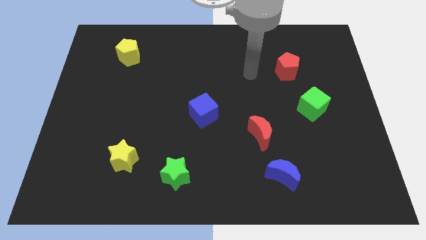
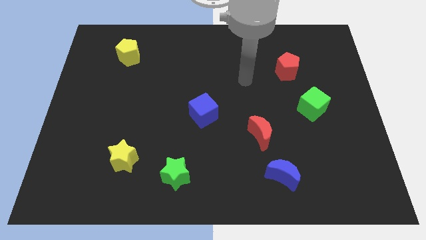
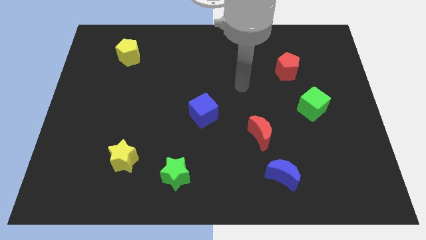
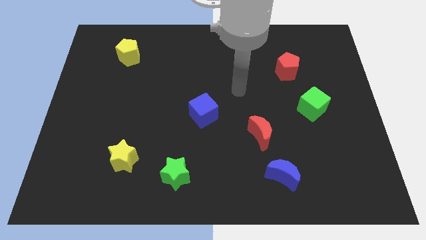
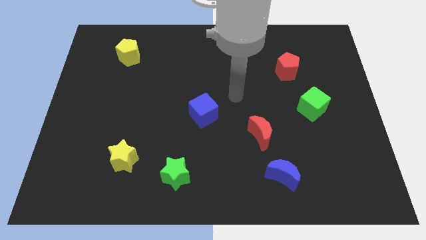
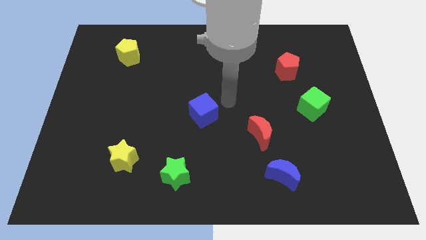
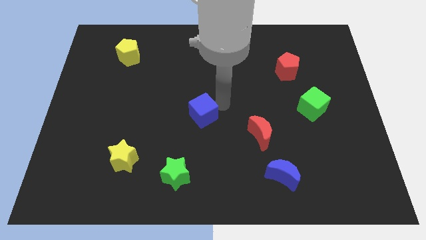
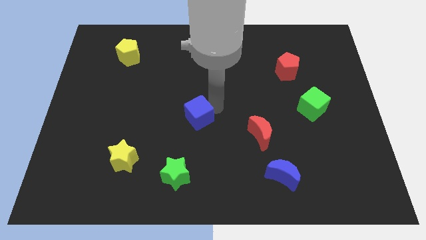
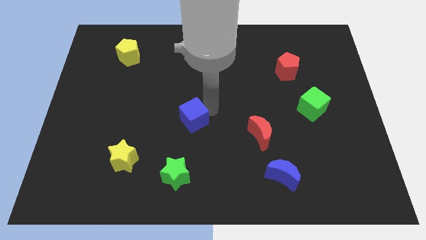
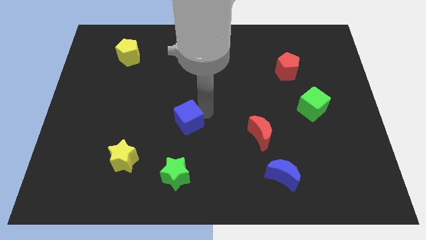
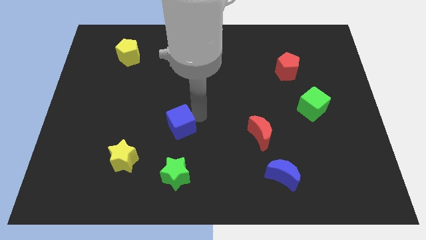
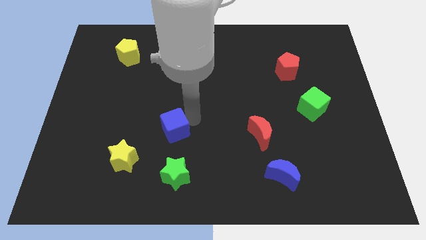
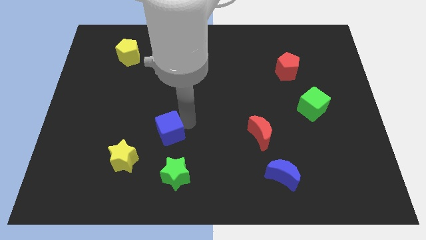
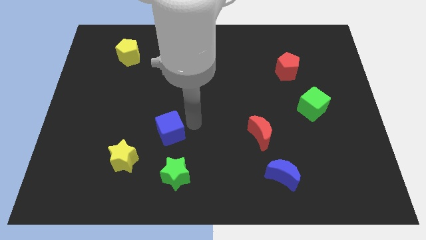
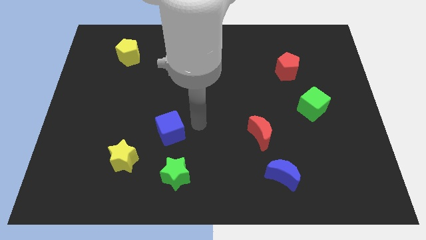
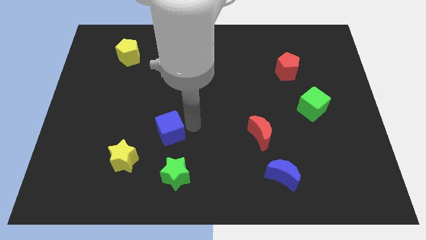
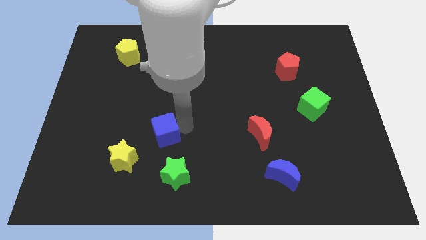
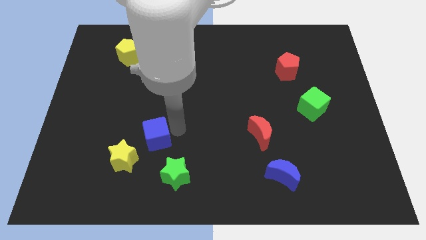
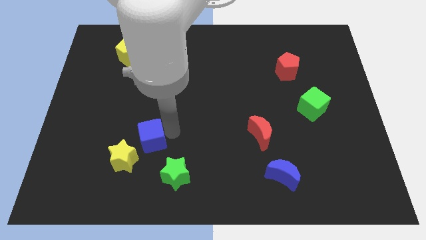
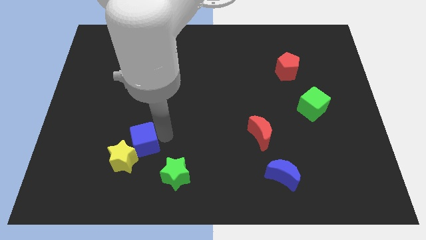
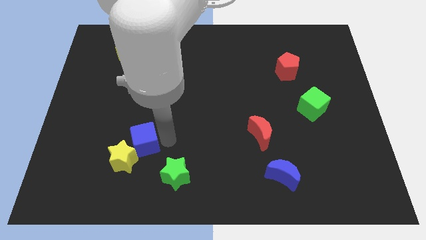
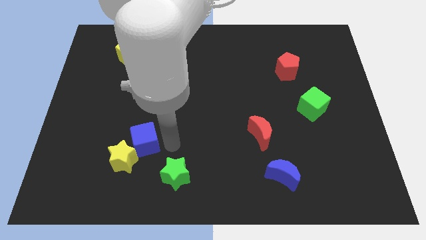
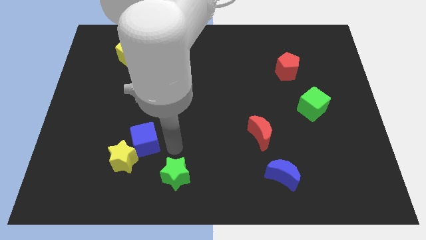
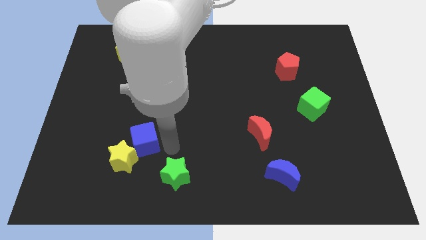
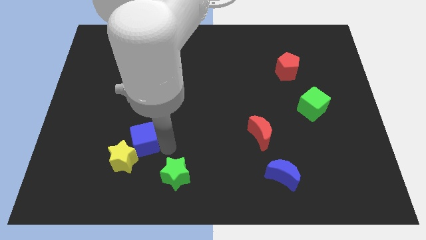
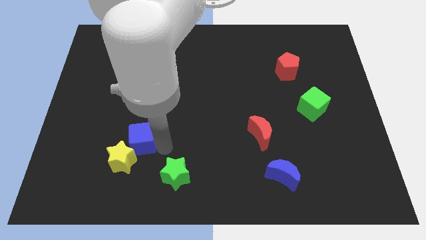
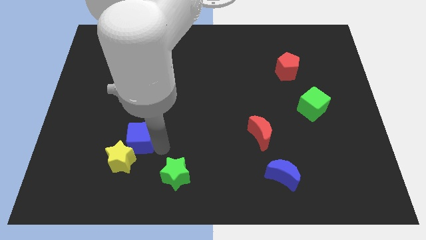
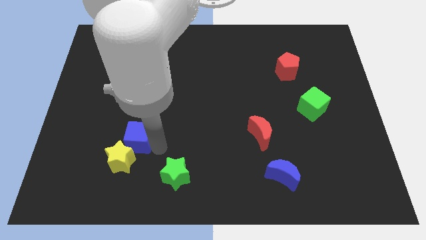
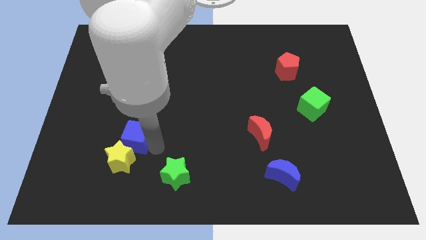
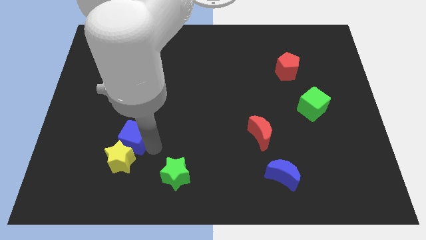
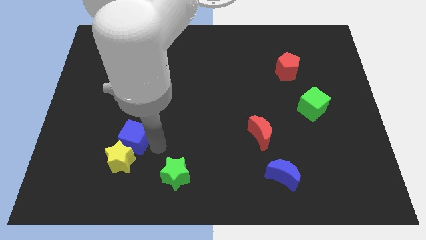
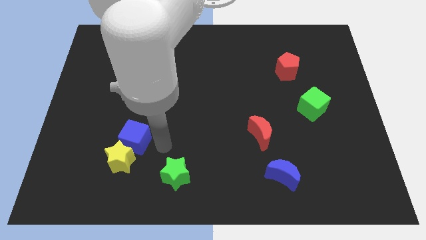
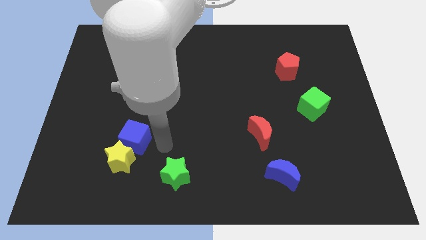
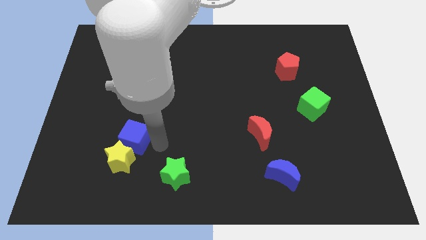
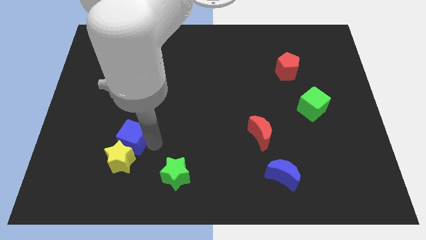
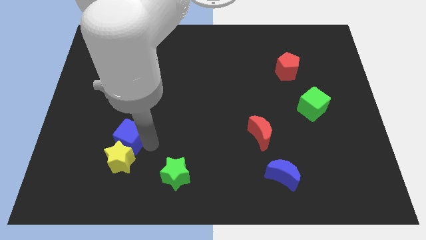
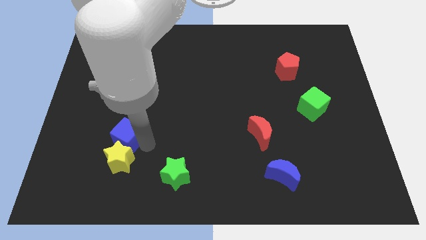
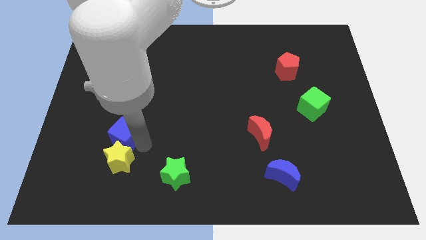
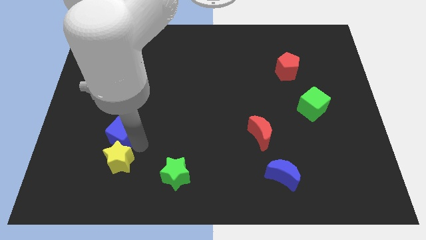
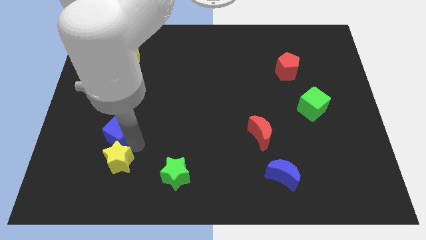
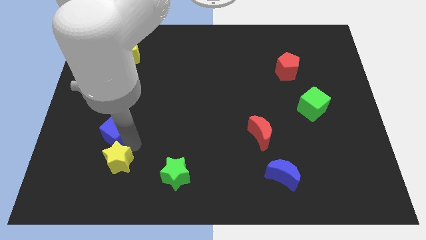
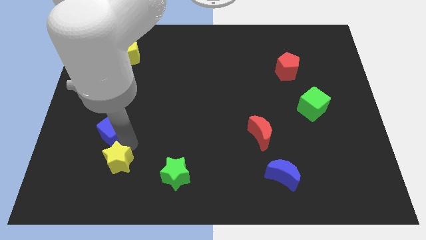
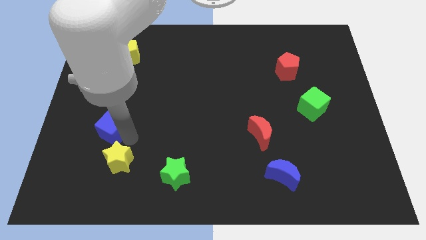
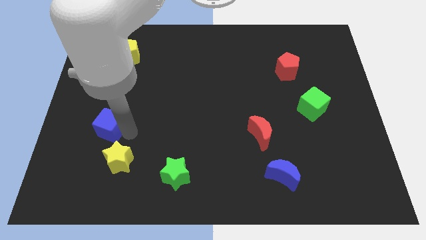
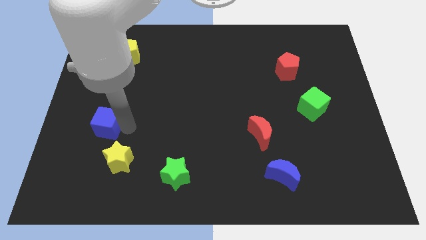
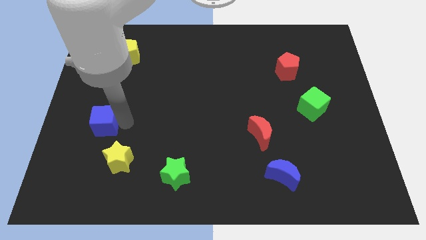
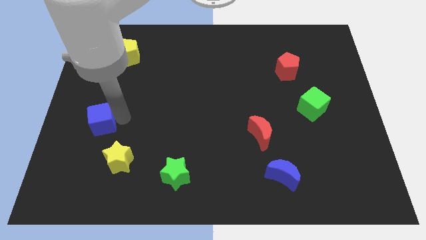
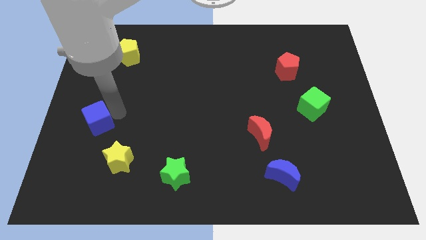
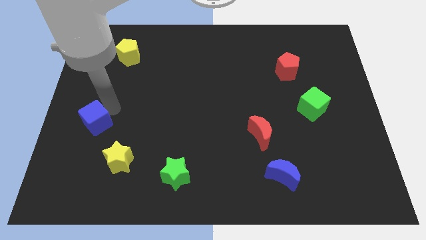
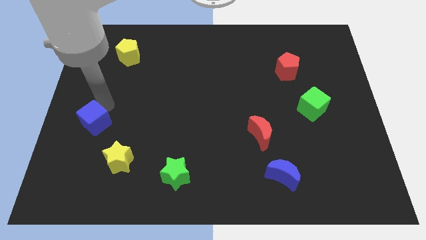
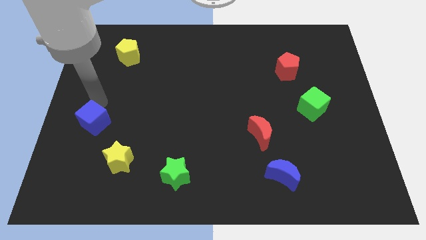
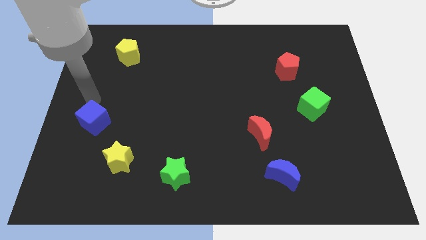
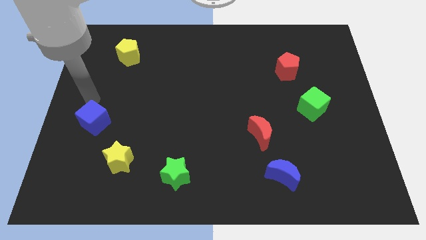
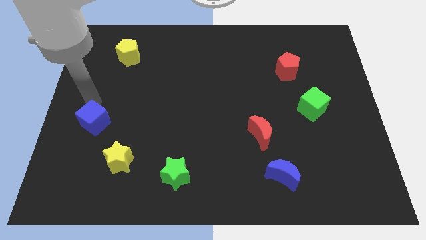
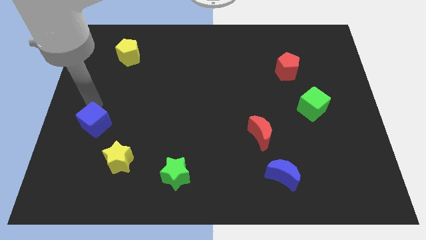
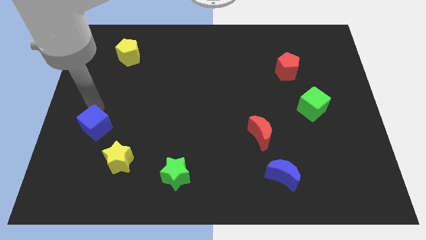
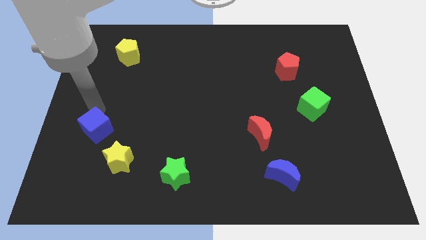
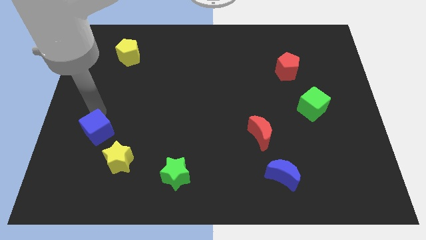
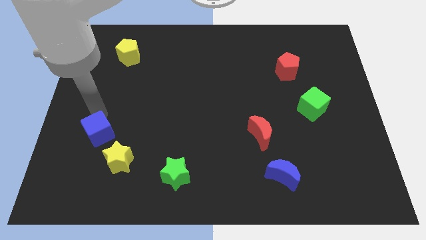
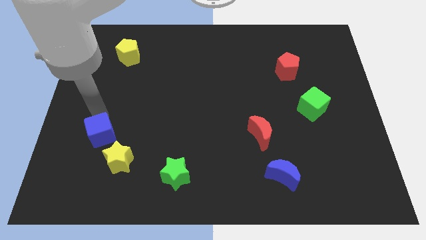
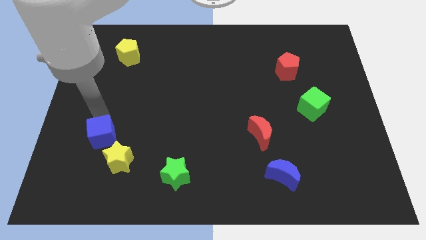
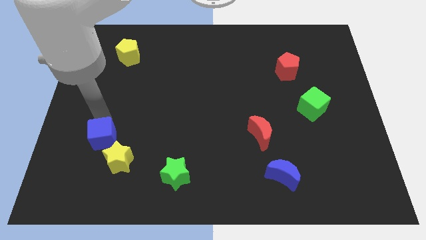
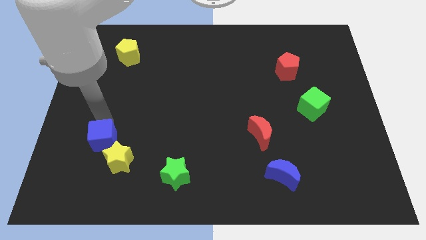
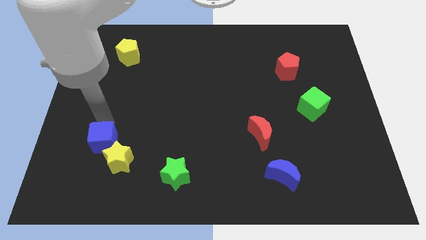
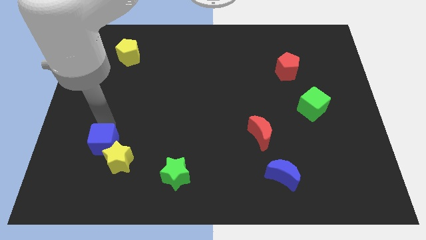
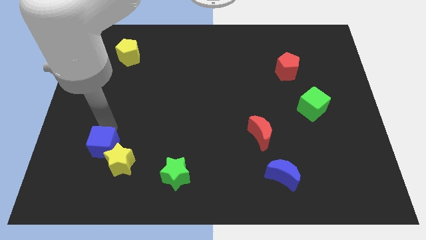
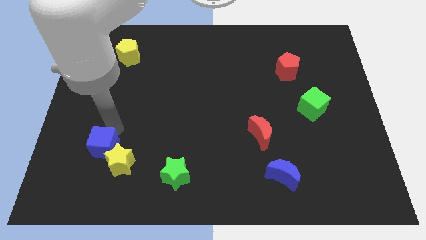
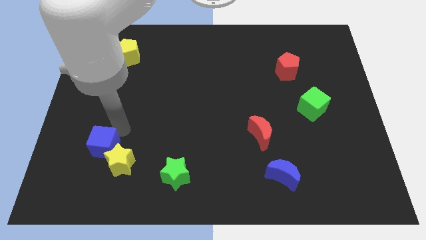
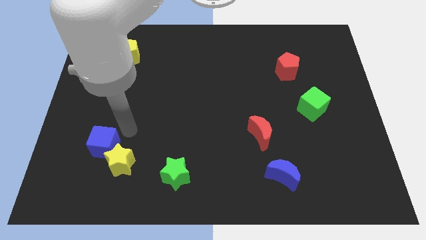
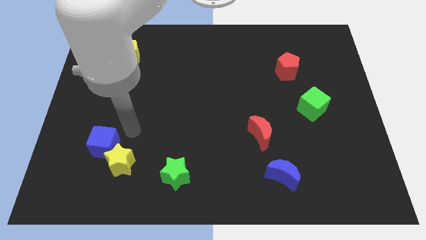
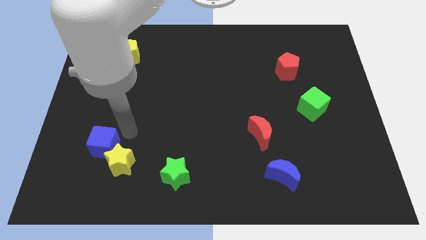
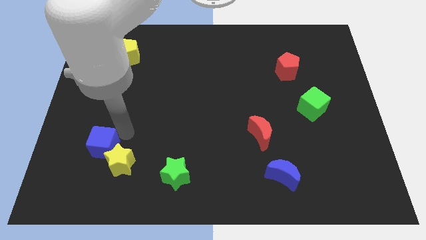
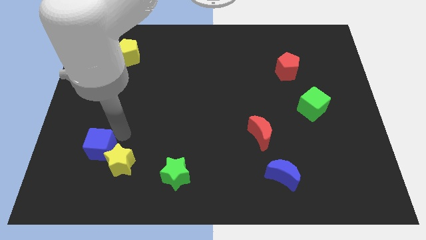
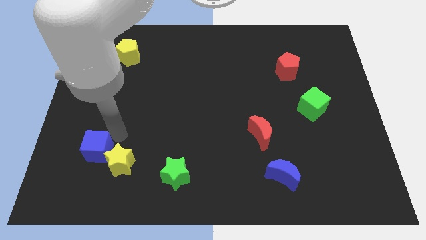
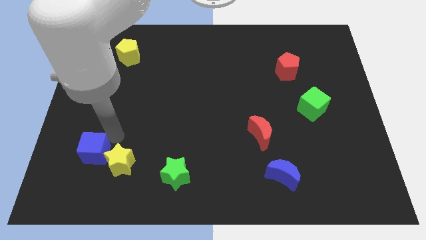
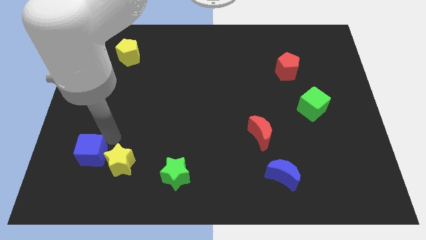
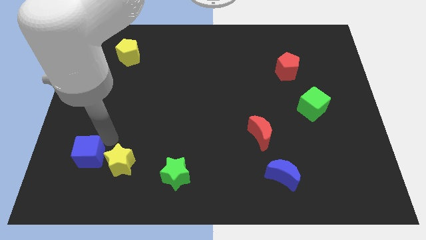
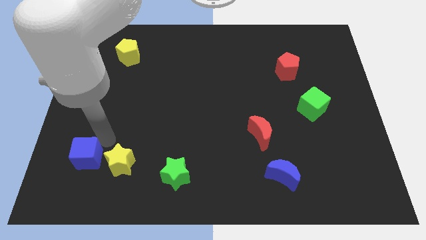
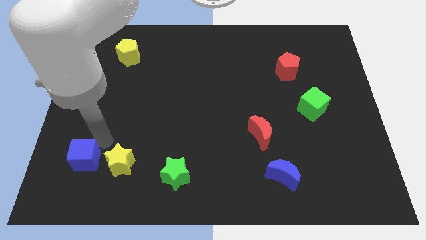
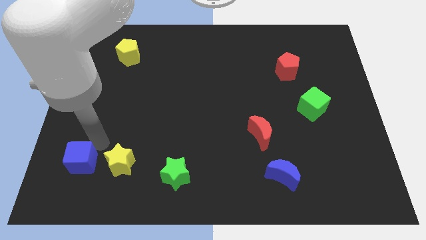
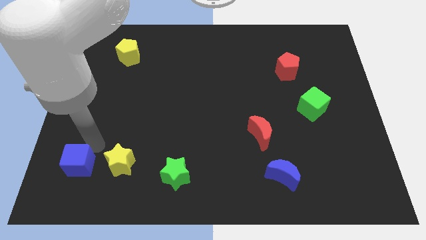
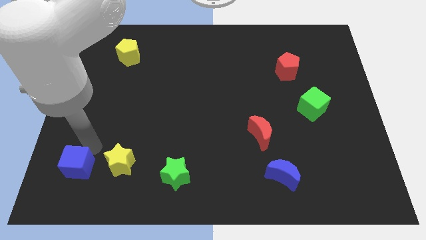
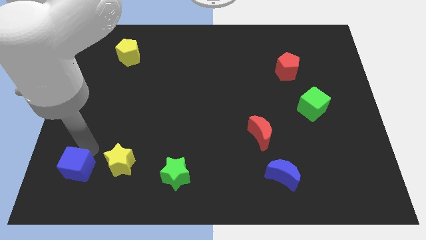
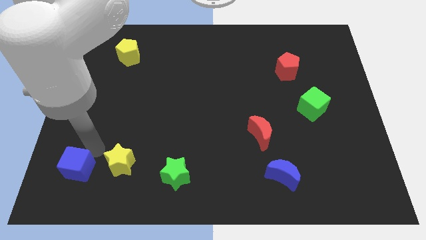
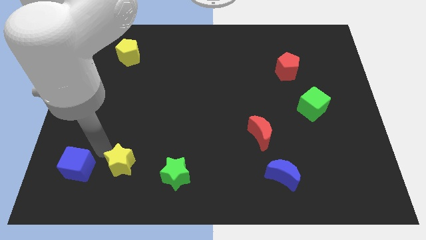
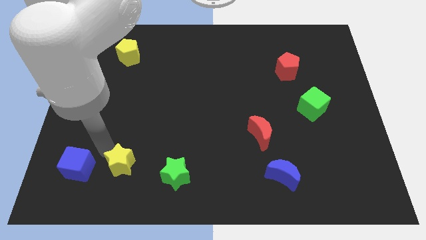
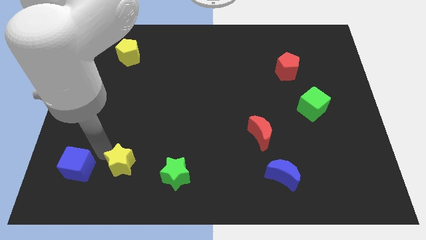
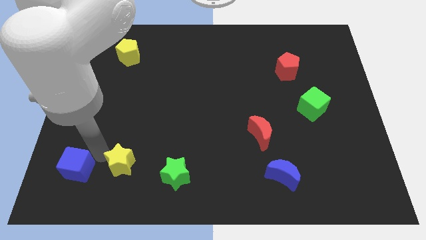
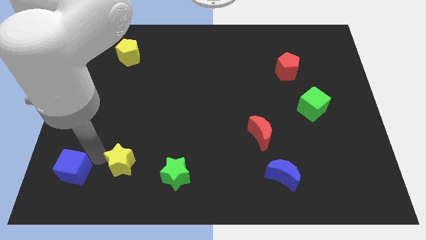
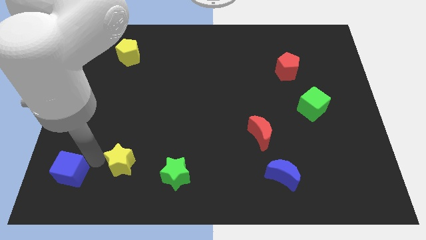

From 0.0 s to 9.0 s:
put the blue cube to the lower left corner
